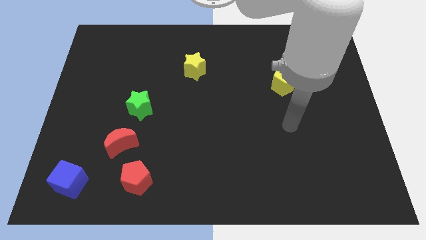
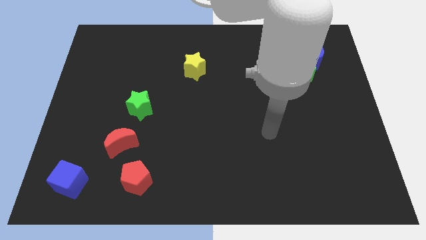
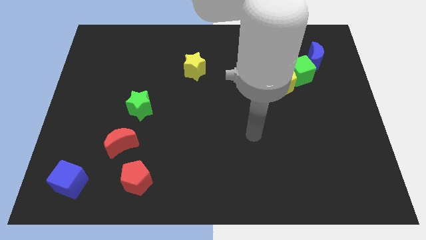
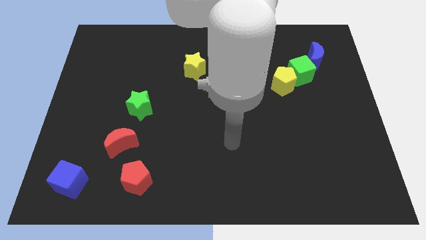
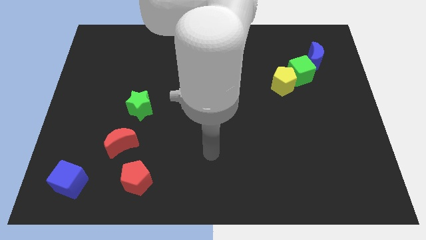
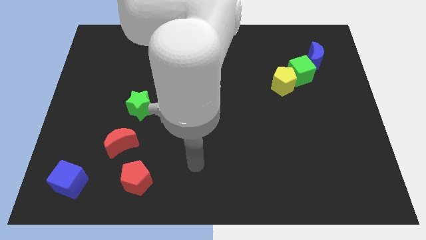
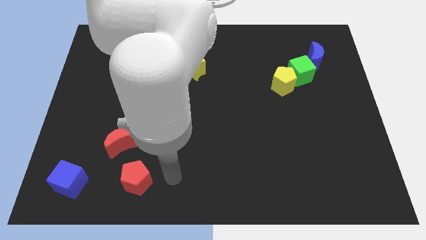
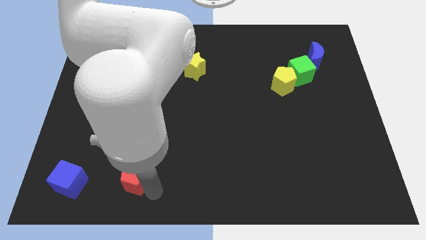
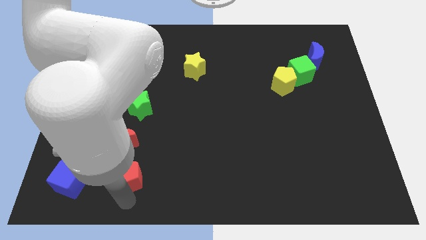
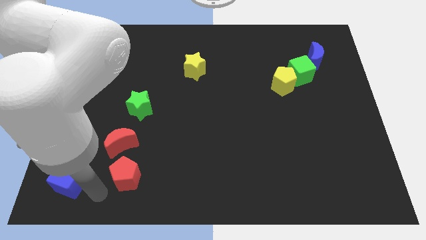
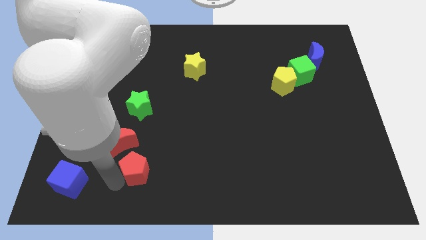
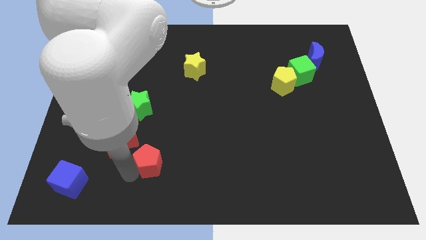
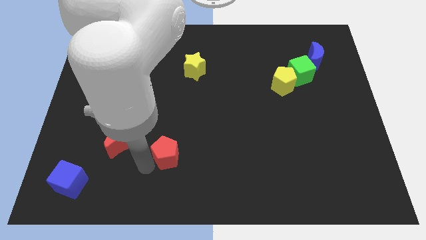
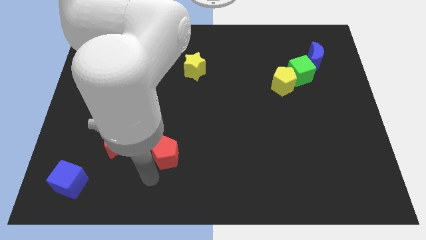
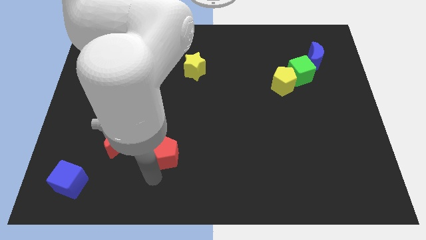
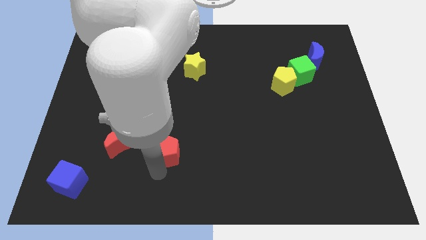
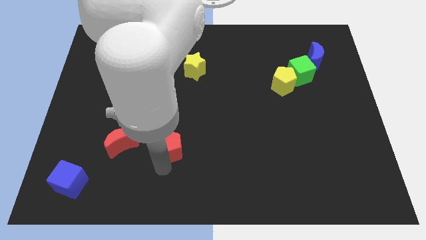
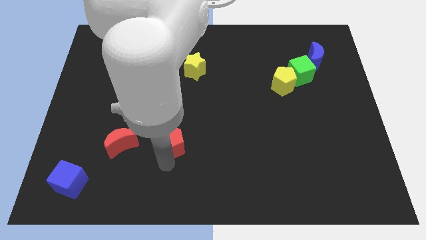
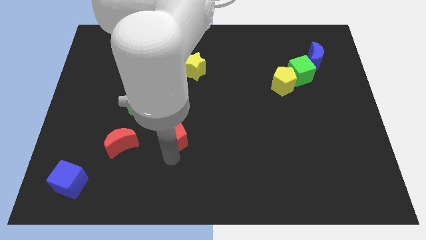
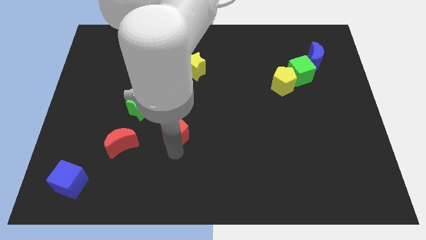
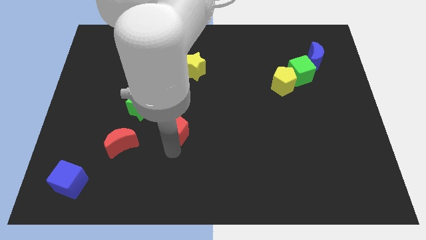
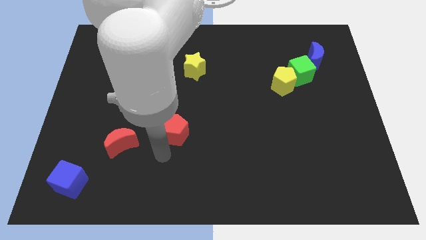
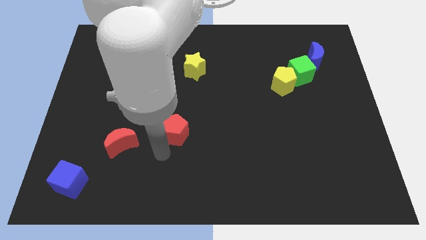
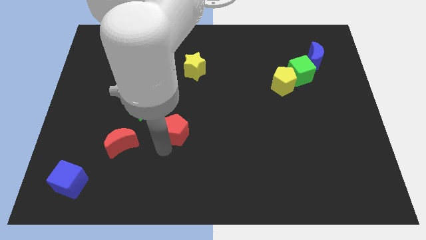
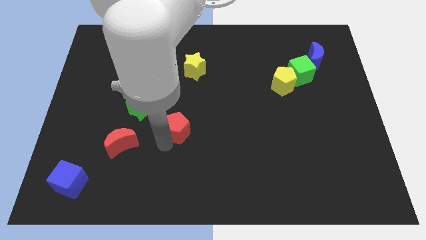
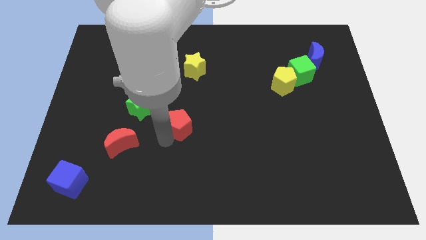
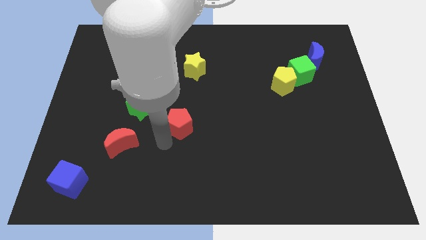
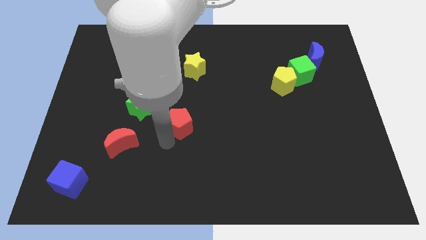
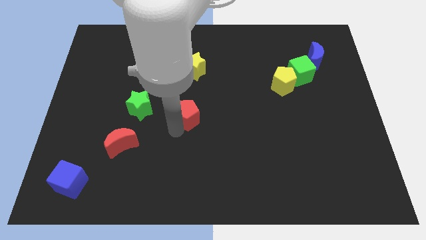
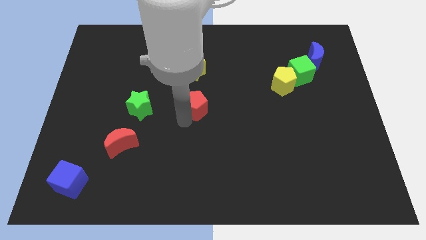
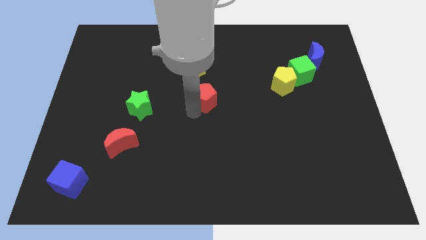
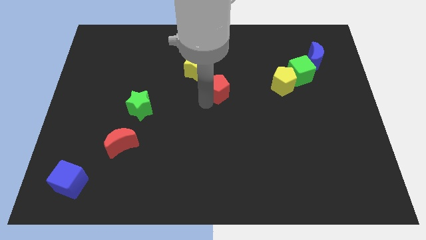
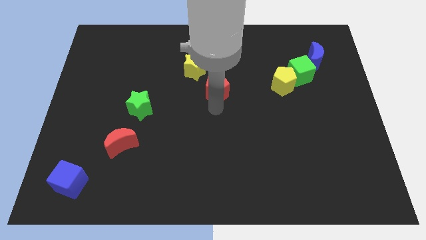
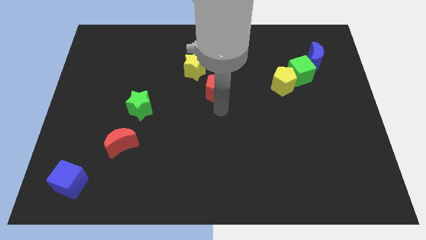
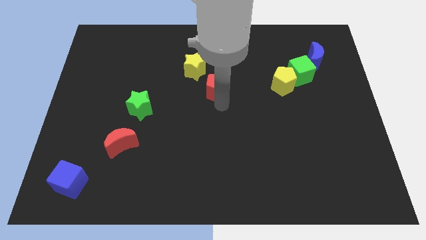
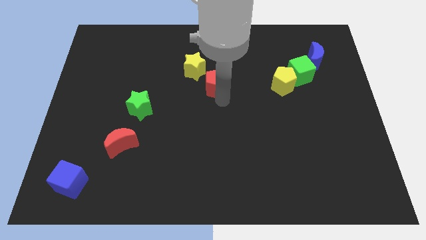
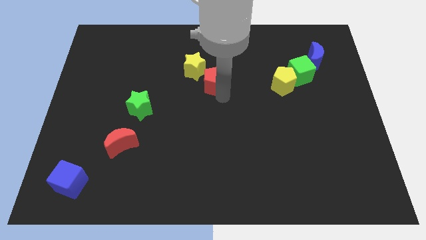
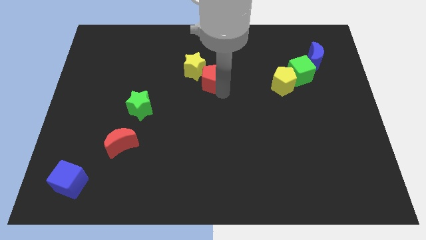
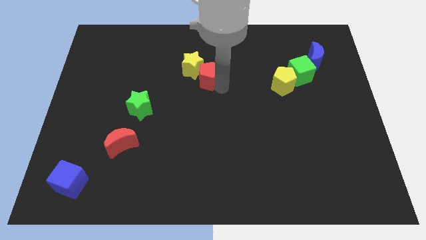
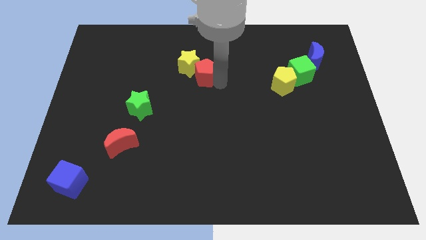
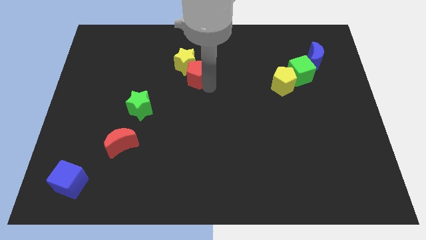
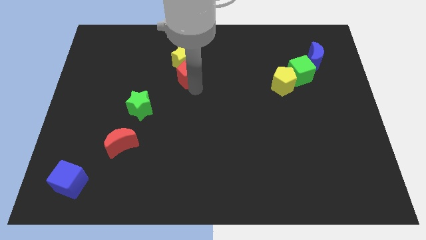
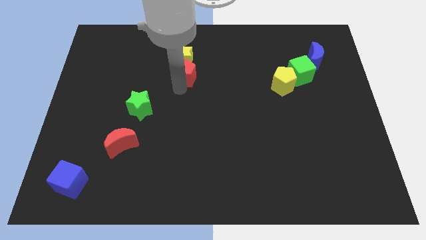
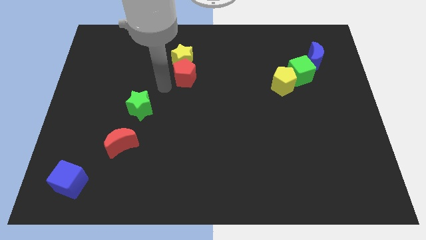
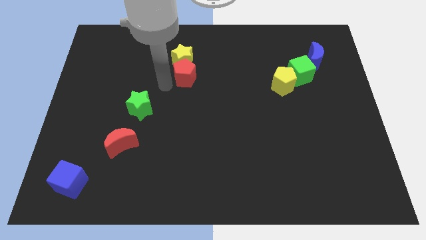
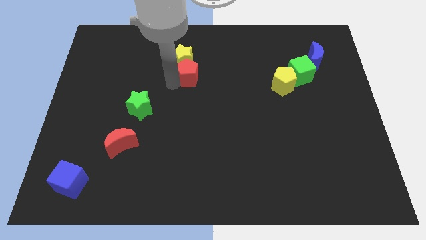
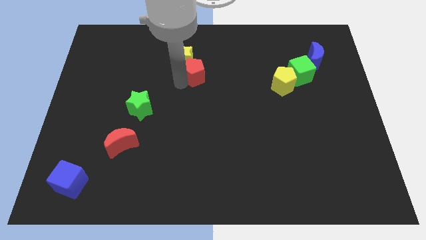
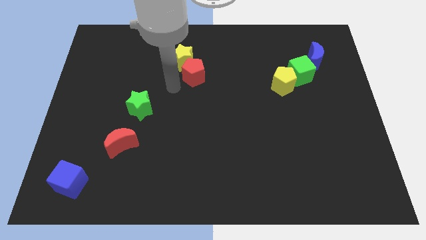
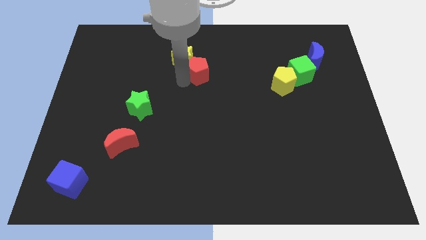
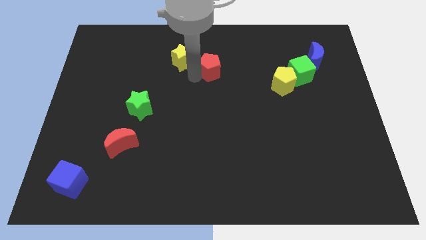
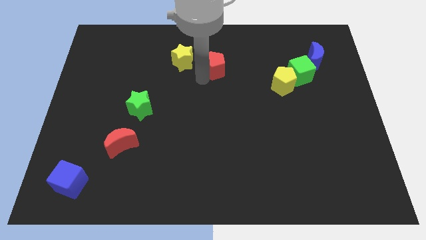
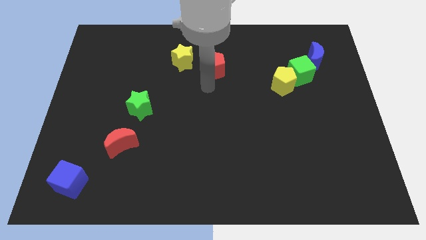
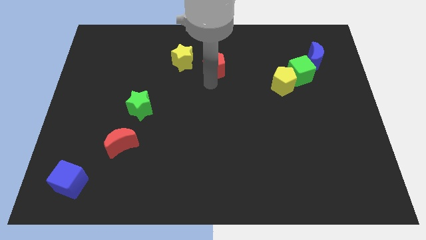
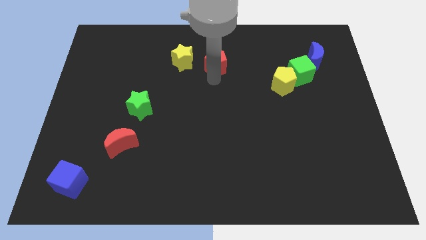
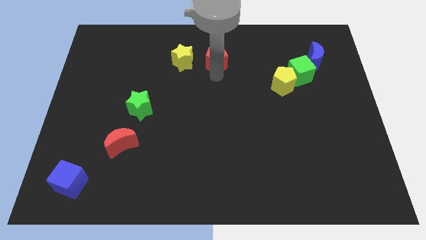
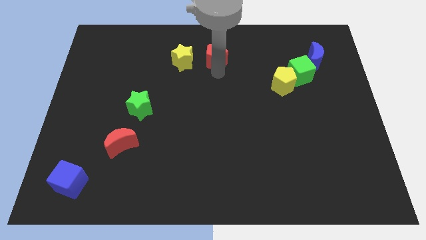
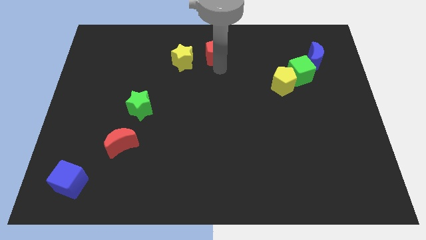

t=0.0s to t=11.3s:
slide the red pentagon to the towards your base

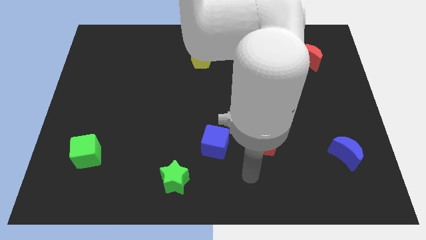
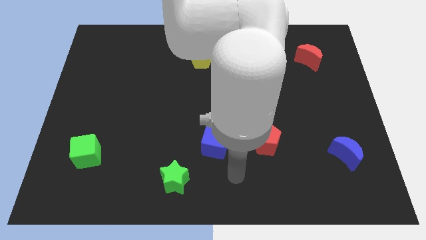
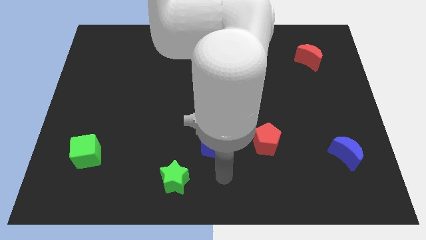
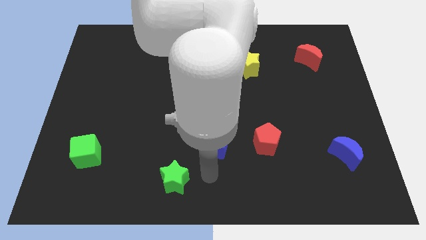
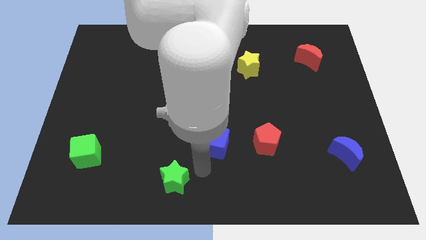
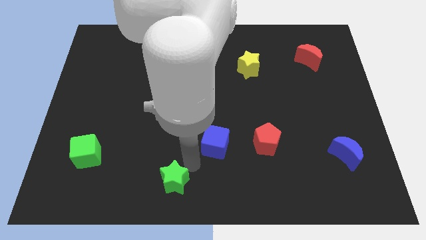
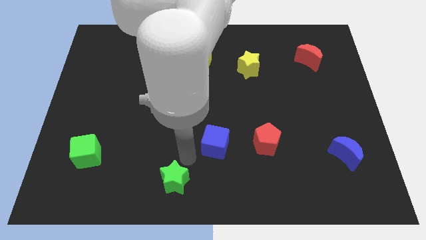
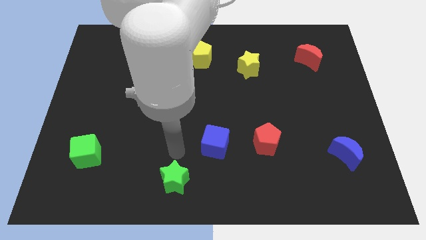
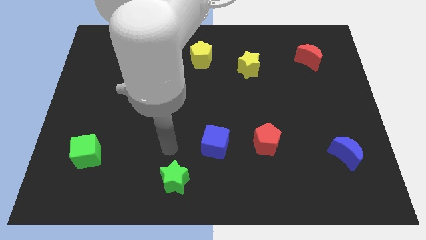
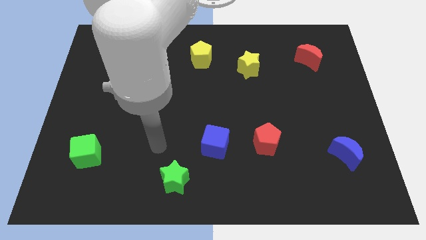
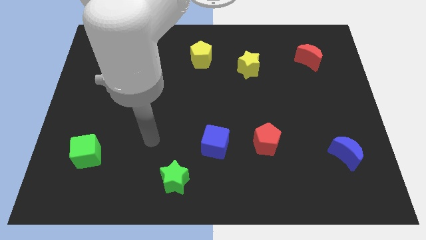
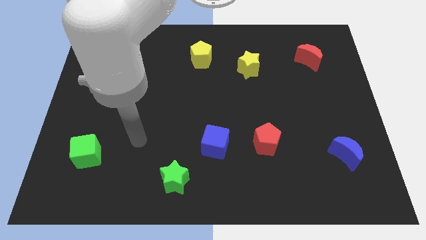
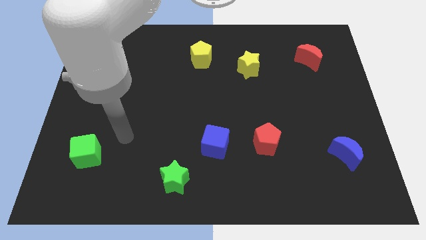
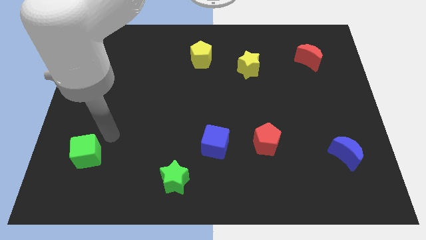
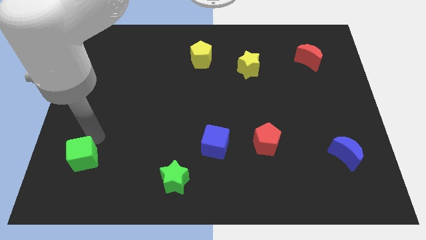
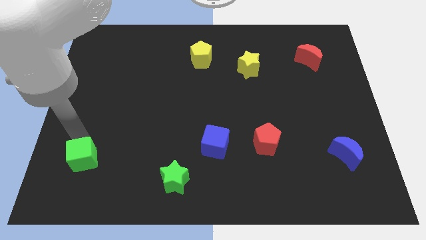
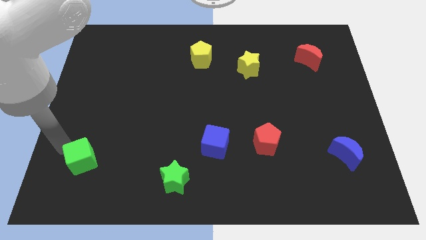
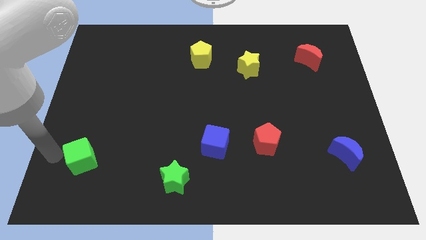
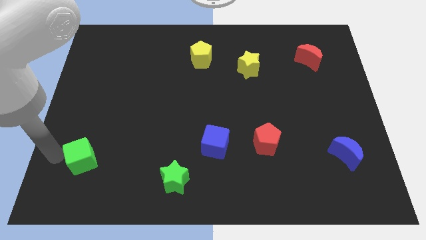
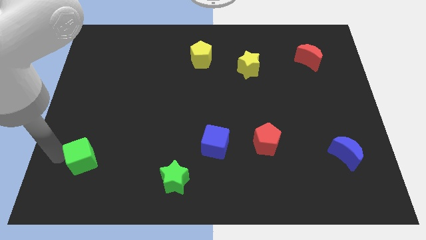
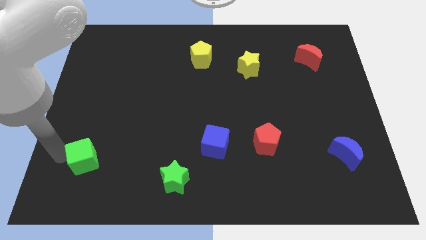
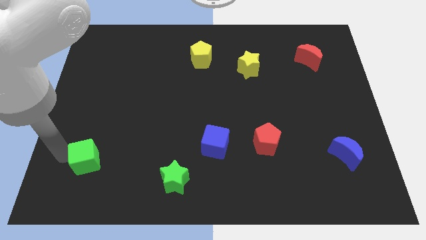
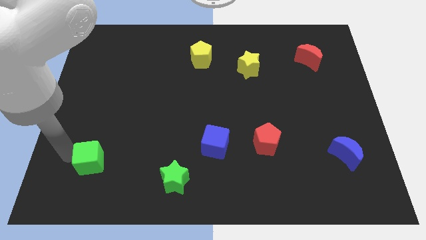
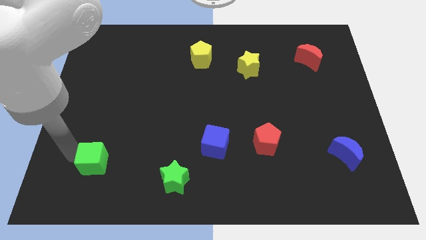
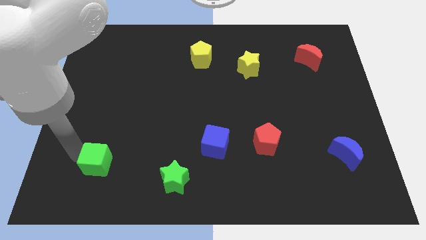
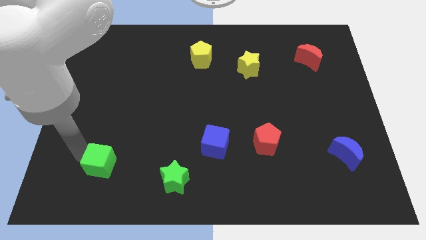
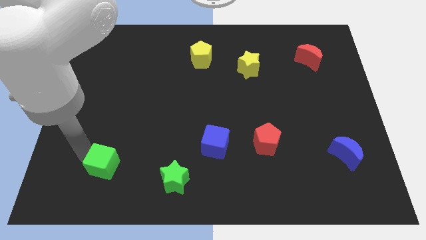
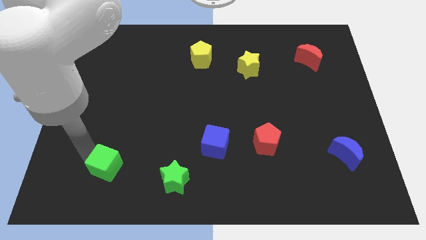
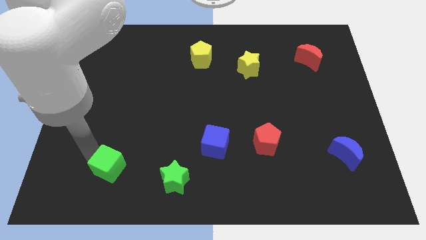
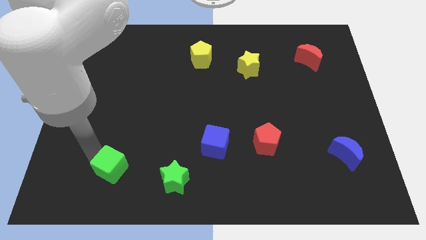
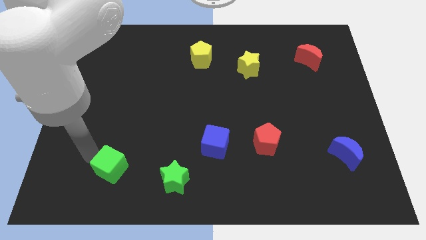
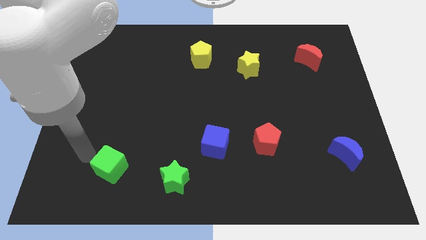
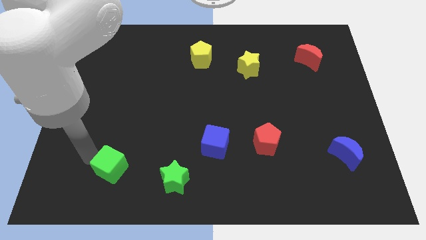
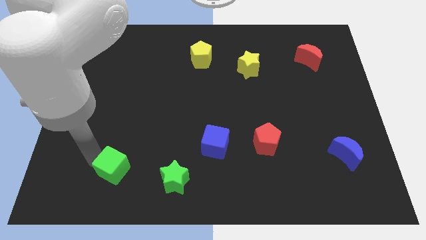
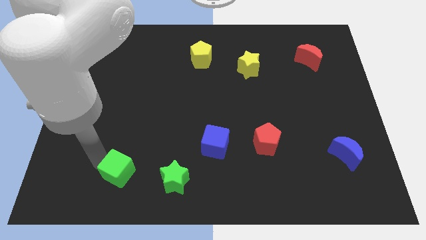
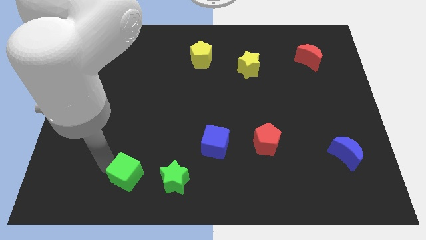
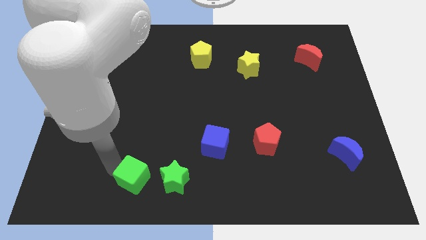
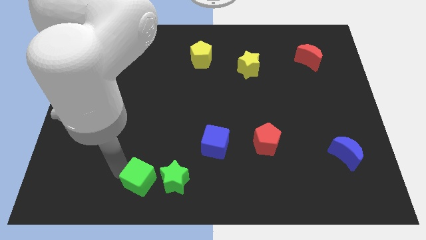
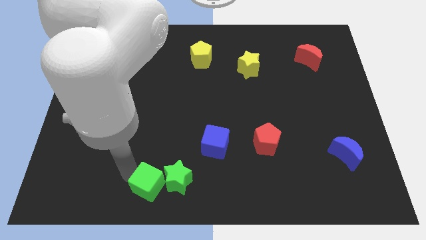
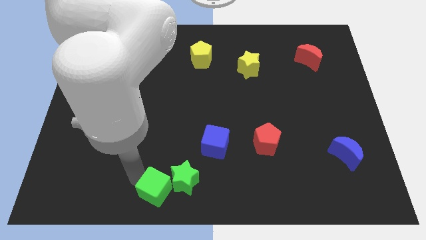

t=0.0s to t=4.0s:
push the green cube to the bottom
